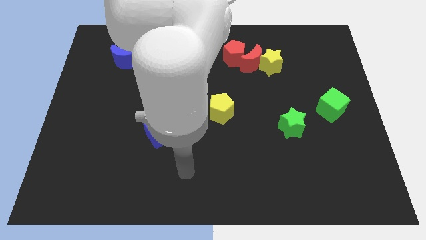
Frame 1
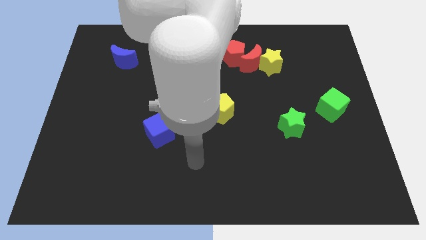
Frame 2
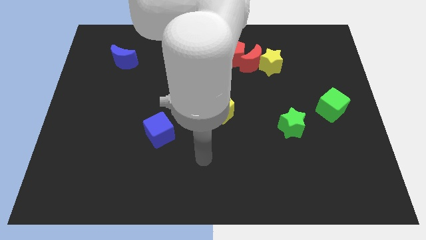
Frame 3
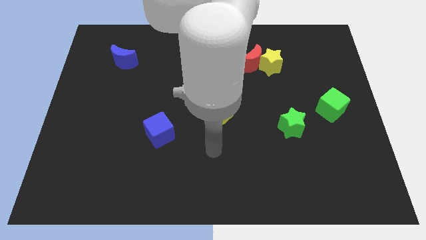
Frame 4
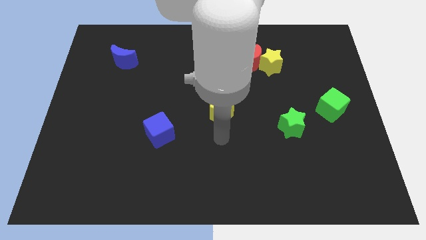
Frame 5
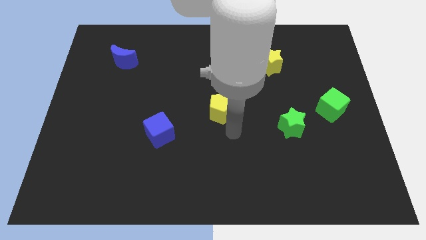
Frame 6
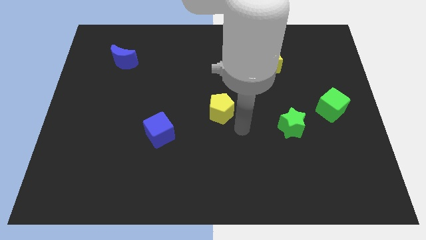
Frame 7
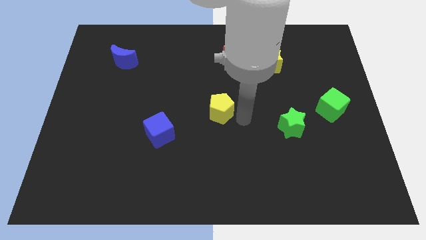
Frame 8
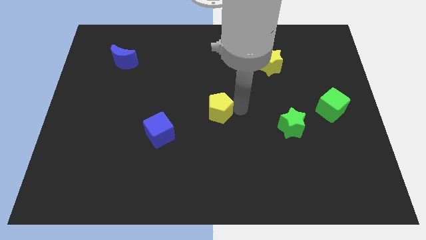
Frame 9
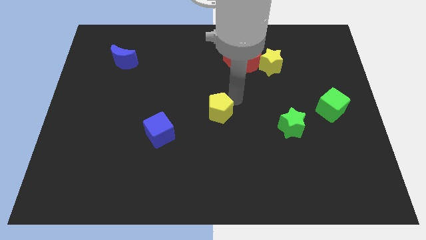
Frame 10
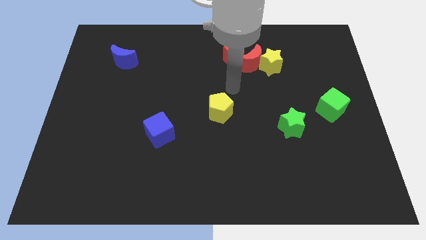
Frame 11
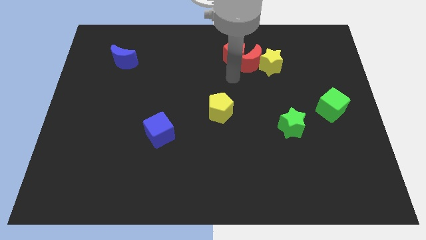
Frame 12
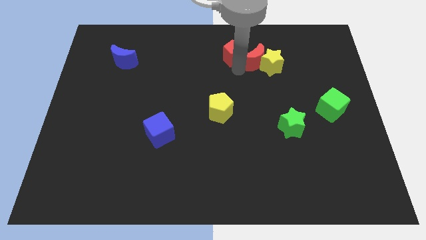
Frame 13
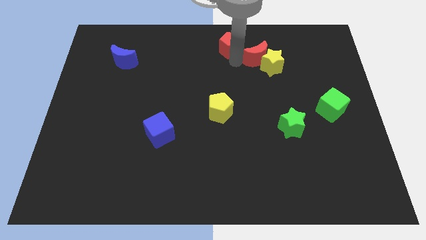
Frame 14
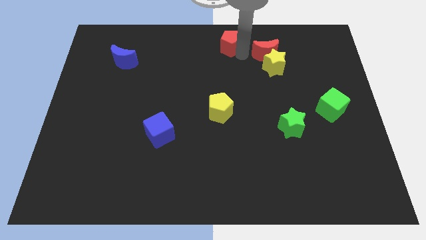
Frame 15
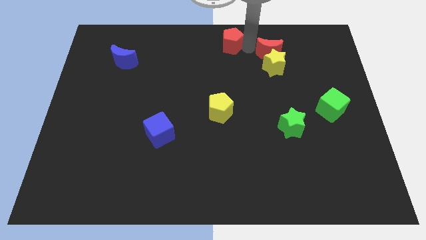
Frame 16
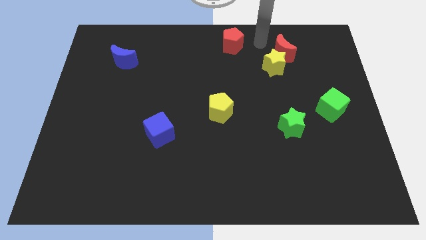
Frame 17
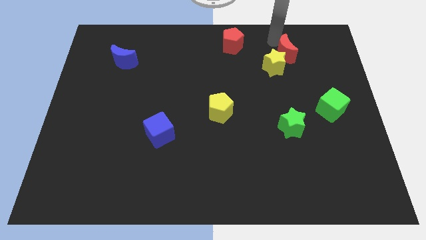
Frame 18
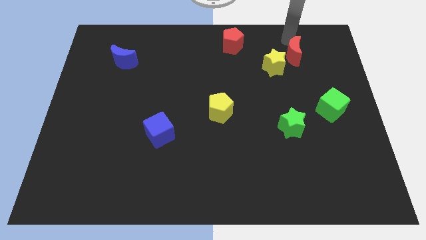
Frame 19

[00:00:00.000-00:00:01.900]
pull the red moon apart from the yellow star and red pentagon

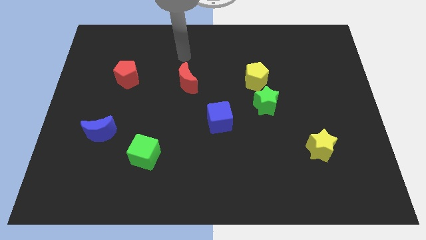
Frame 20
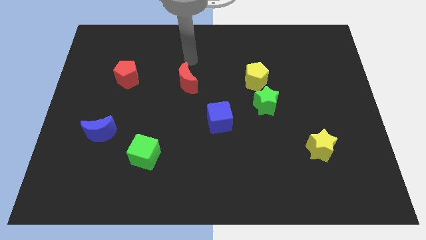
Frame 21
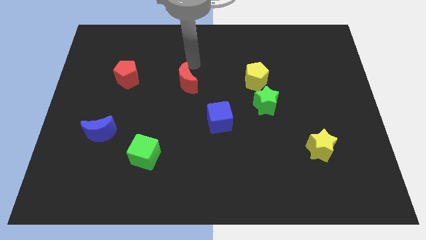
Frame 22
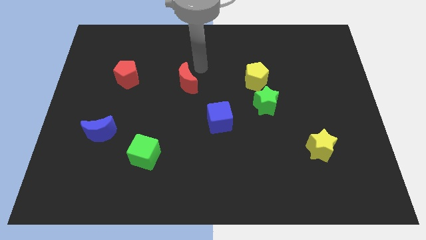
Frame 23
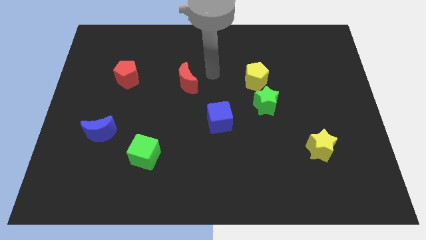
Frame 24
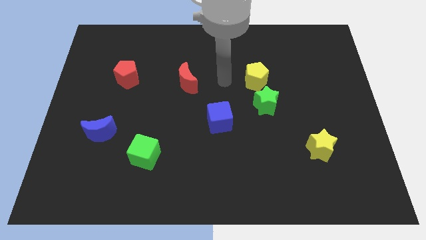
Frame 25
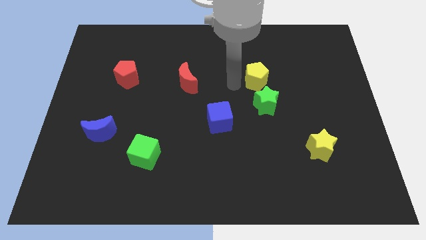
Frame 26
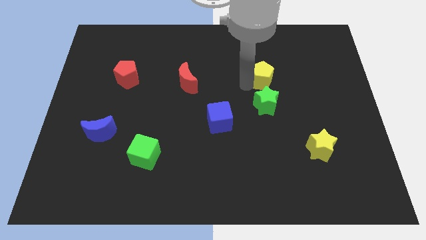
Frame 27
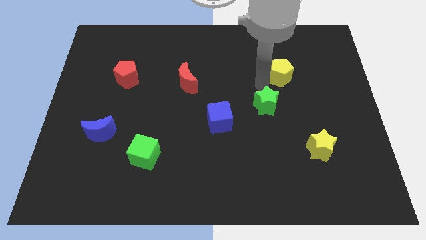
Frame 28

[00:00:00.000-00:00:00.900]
move the green star away from the yellow pentagon

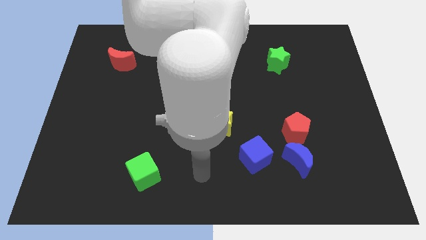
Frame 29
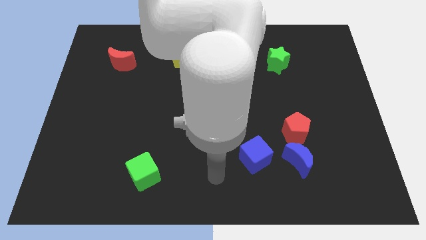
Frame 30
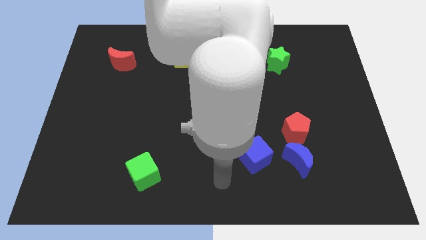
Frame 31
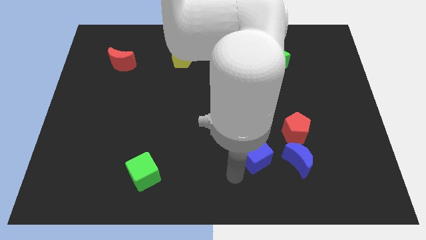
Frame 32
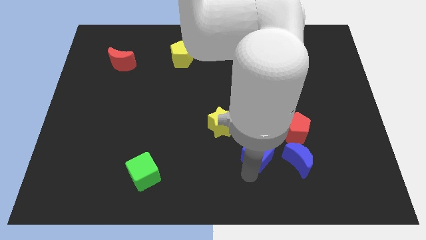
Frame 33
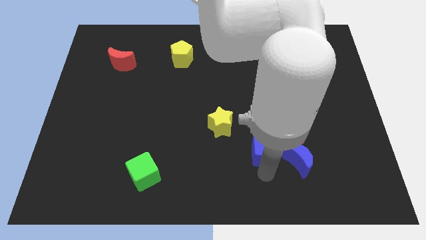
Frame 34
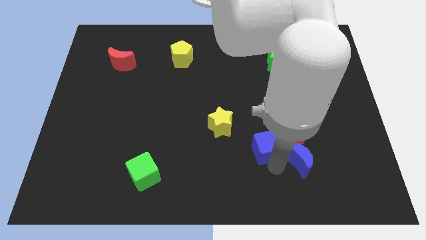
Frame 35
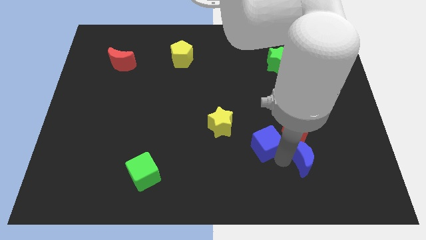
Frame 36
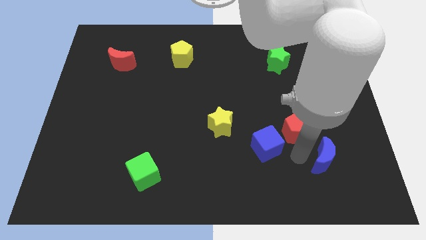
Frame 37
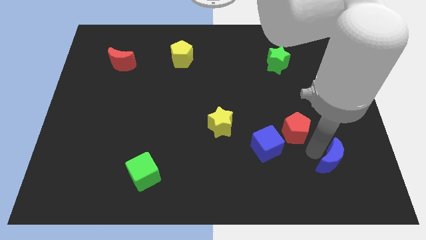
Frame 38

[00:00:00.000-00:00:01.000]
move the red pentagon away from the blue moon

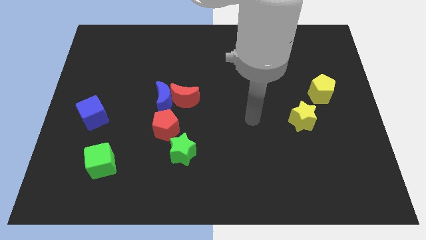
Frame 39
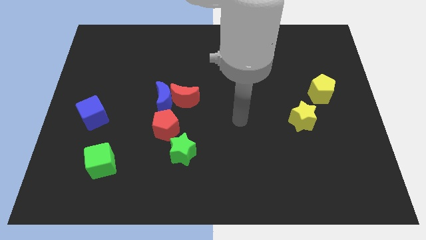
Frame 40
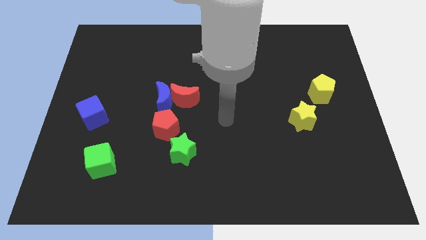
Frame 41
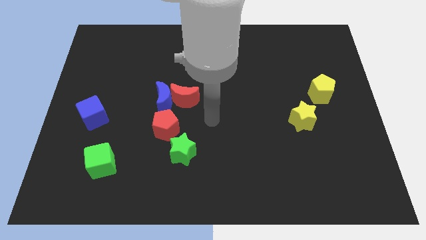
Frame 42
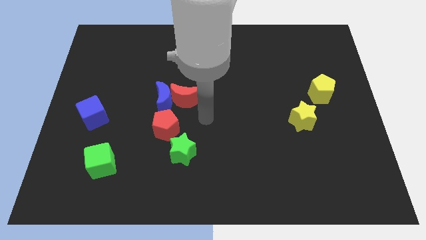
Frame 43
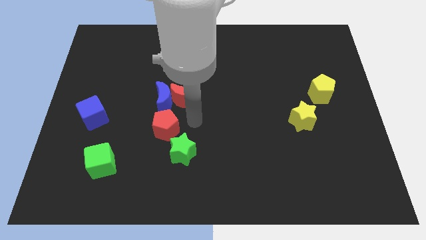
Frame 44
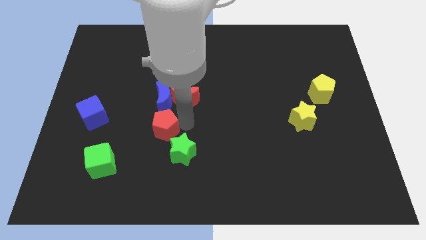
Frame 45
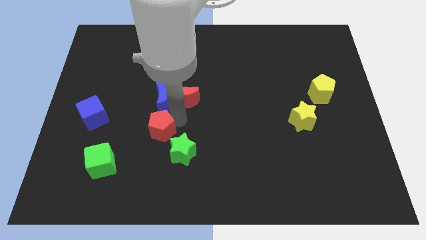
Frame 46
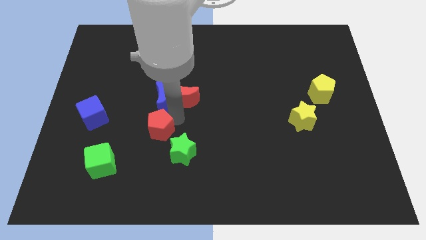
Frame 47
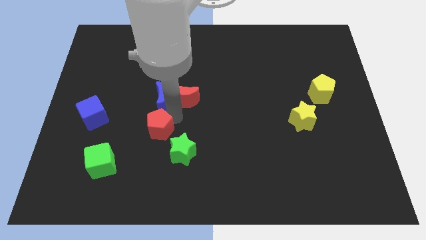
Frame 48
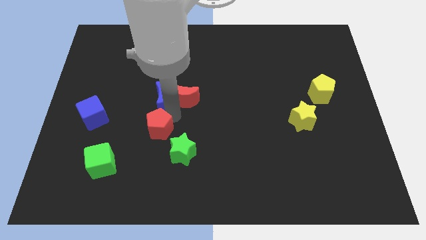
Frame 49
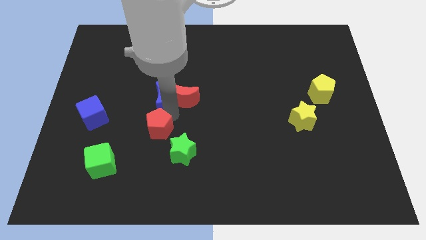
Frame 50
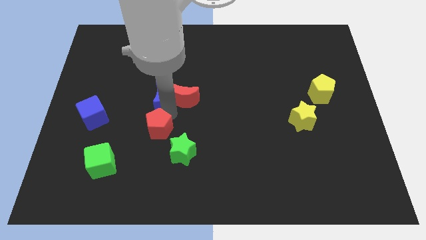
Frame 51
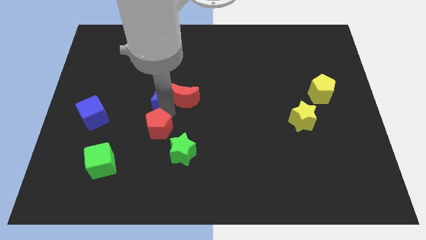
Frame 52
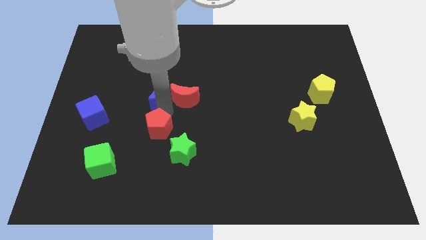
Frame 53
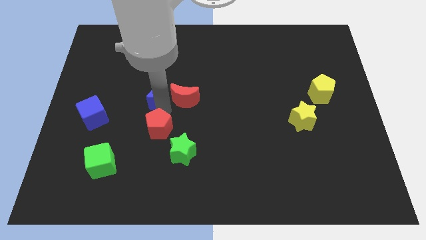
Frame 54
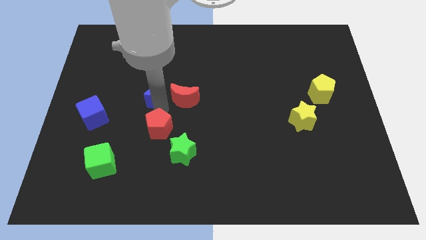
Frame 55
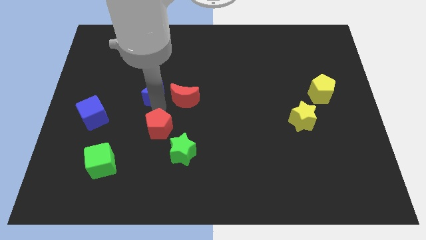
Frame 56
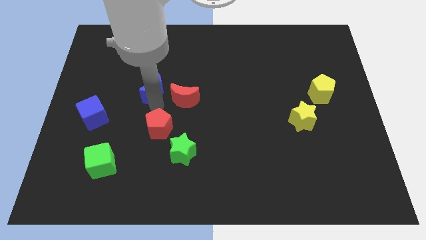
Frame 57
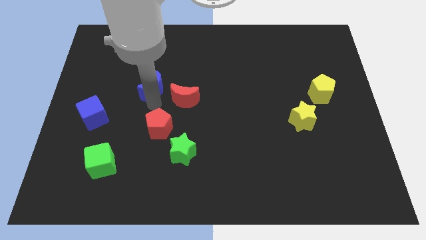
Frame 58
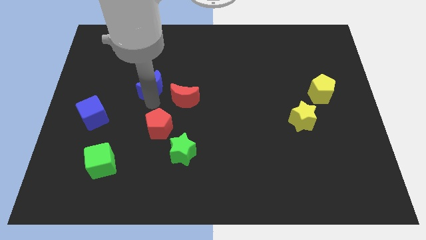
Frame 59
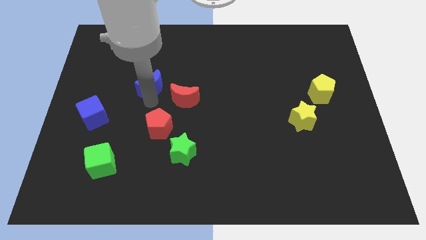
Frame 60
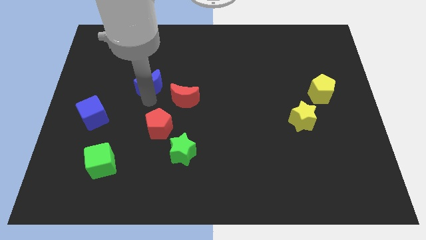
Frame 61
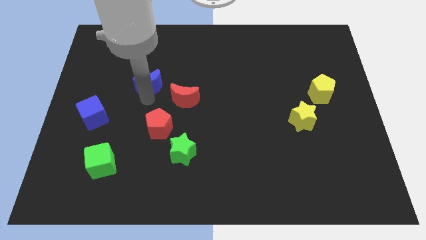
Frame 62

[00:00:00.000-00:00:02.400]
separate the blue moon from the red moon and red pentagon

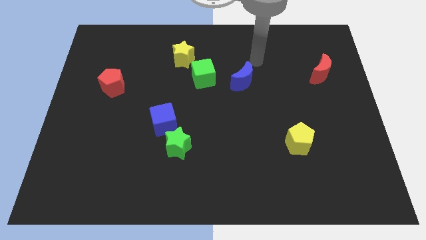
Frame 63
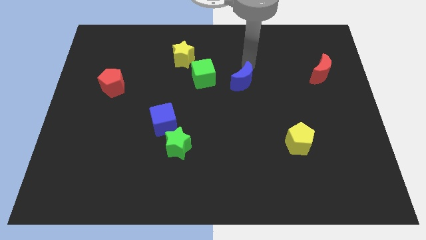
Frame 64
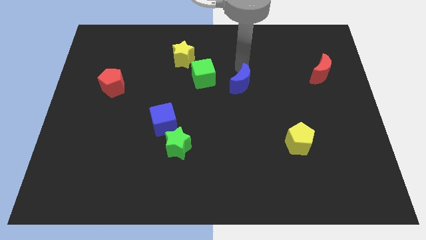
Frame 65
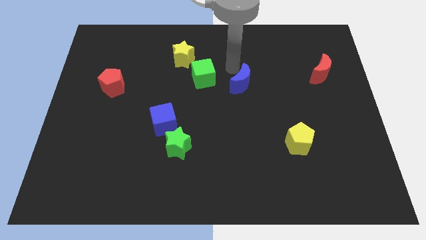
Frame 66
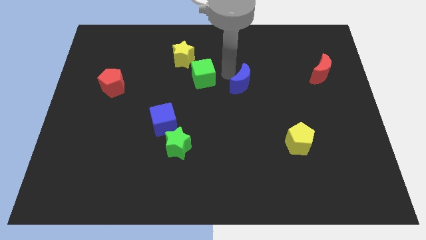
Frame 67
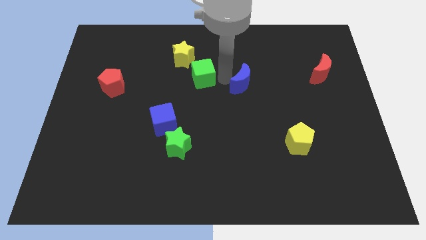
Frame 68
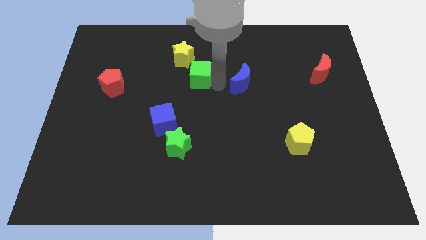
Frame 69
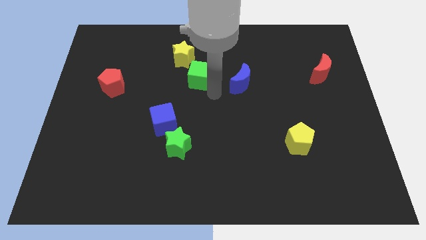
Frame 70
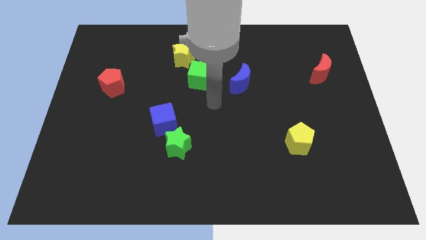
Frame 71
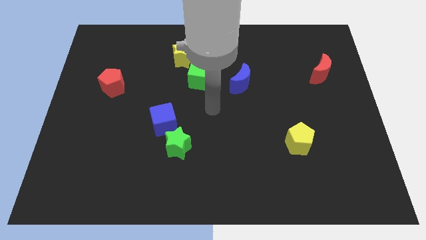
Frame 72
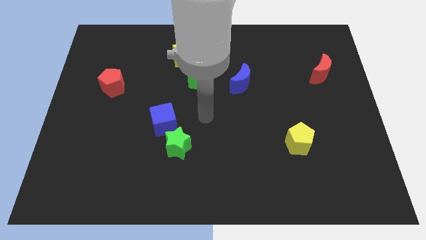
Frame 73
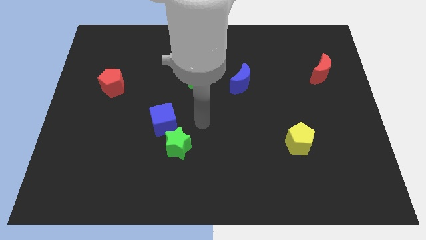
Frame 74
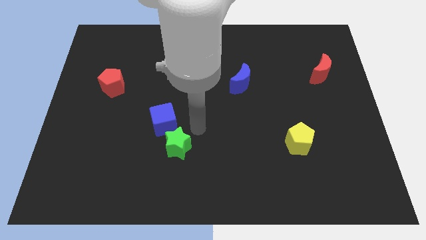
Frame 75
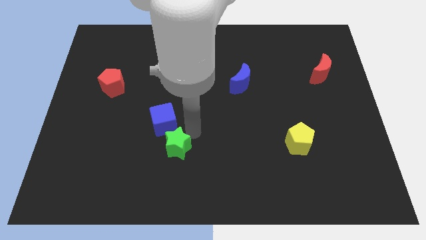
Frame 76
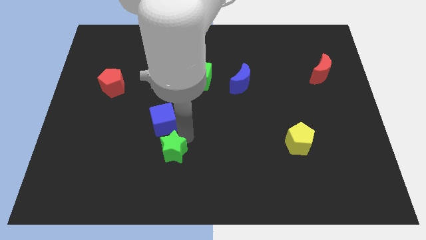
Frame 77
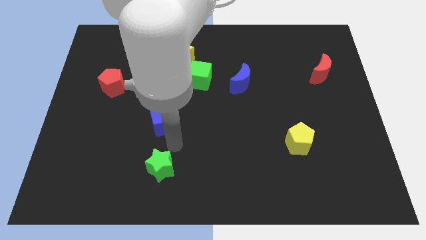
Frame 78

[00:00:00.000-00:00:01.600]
move the blue cube away from the green star

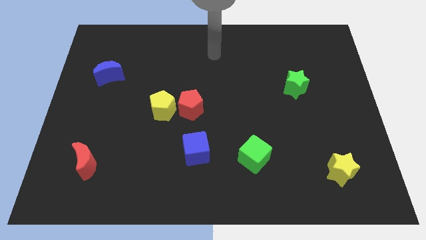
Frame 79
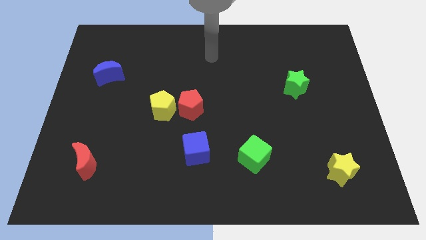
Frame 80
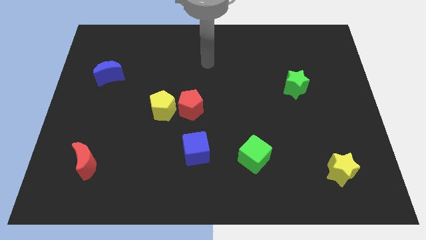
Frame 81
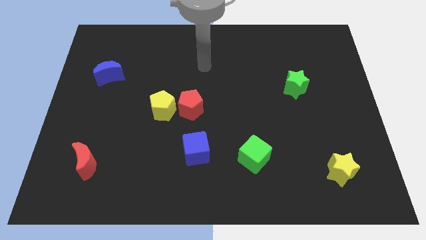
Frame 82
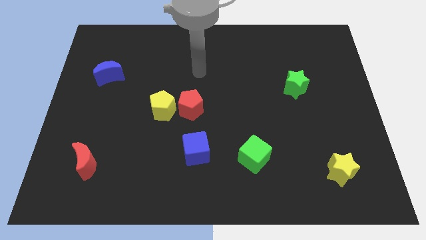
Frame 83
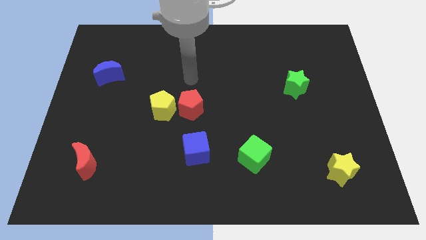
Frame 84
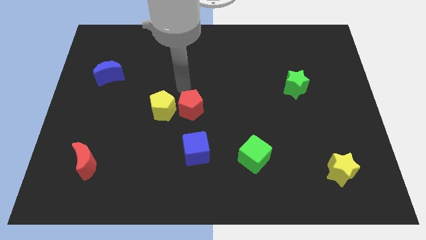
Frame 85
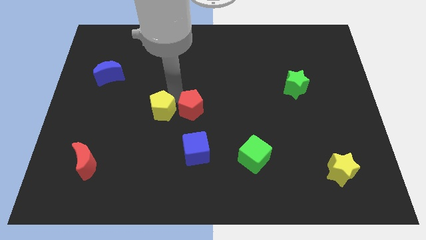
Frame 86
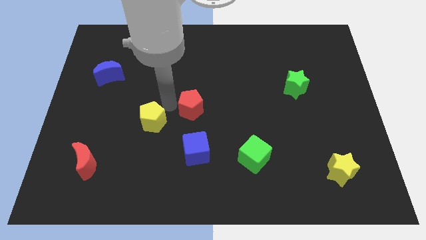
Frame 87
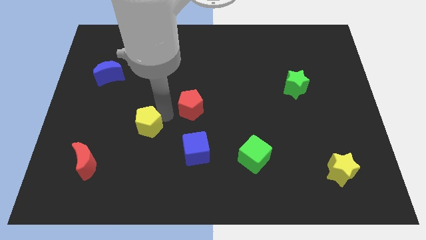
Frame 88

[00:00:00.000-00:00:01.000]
separate the red pentagon from the yellow pentagon

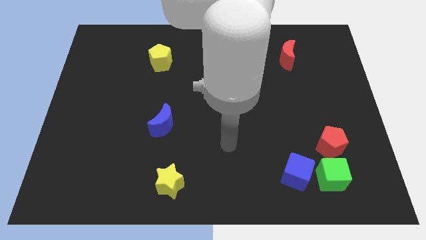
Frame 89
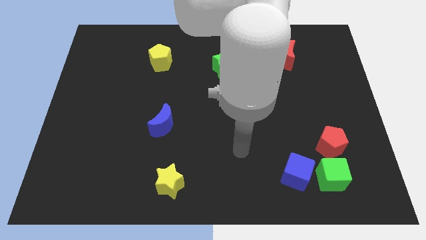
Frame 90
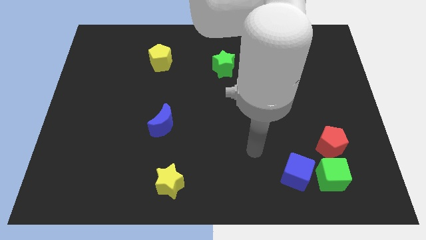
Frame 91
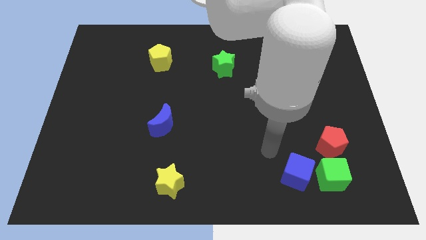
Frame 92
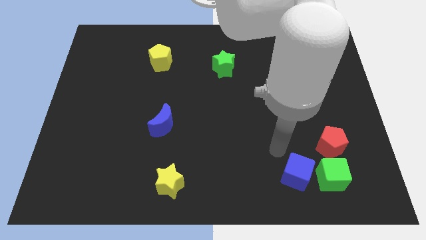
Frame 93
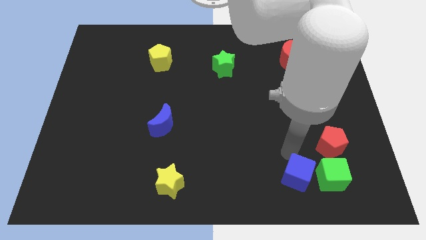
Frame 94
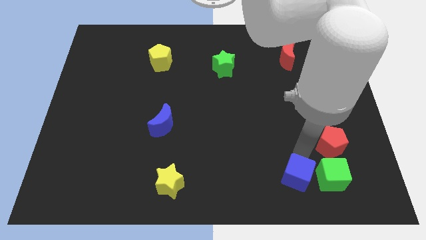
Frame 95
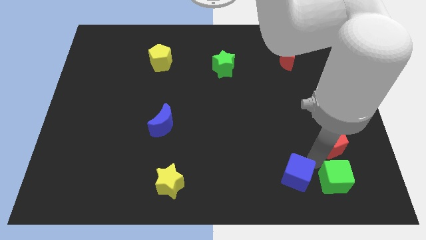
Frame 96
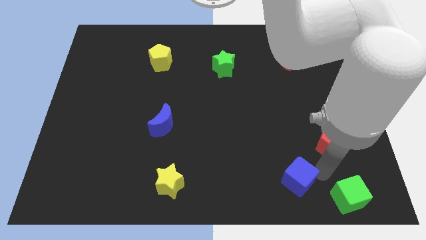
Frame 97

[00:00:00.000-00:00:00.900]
separate the blue cube from the green cube
